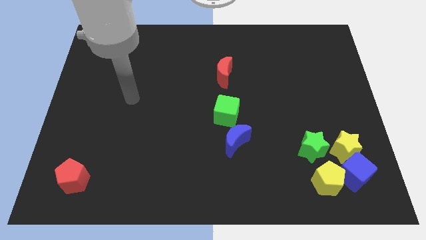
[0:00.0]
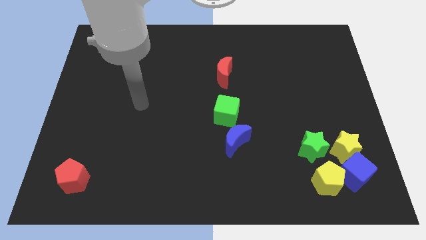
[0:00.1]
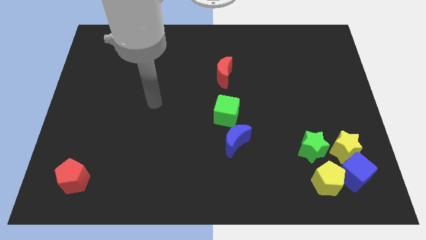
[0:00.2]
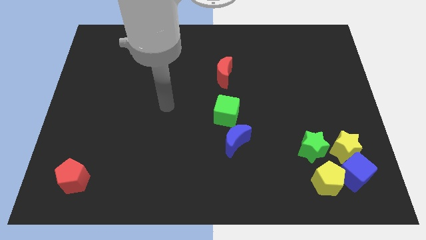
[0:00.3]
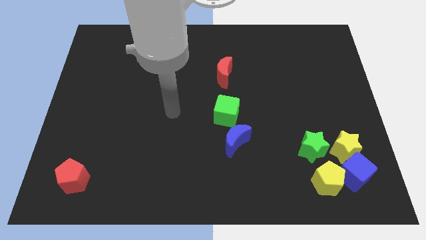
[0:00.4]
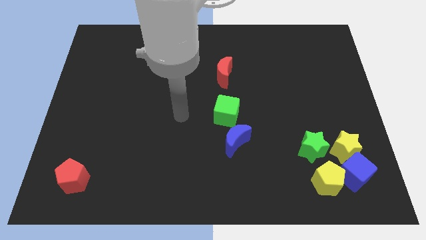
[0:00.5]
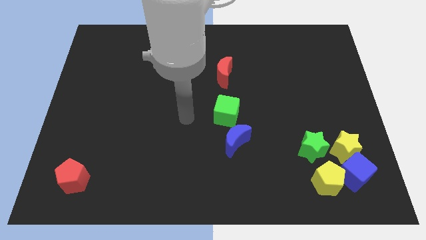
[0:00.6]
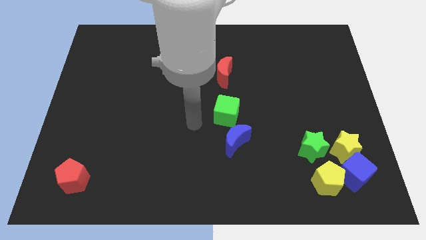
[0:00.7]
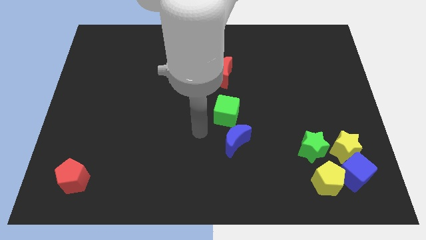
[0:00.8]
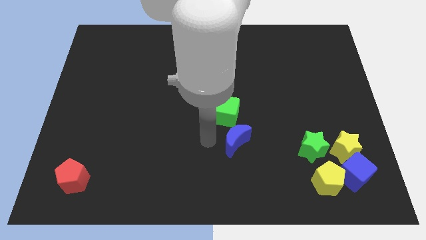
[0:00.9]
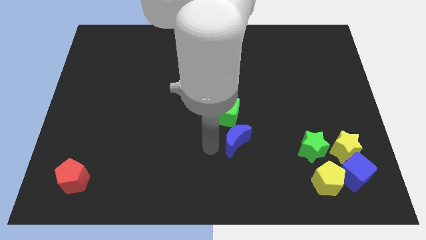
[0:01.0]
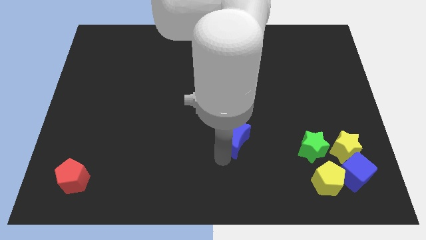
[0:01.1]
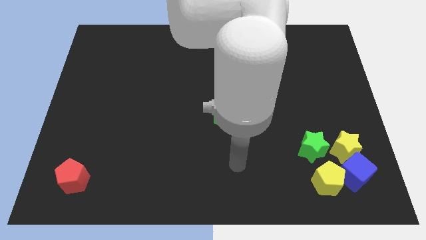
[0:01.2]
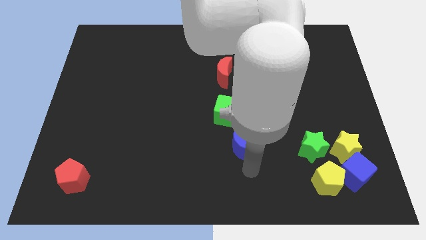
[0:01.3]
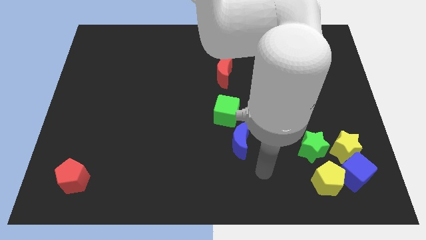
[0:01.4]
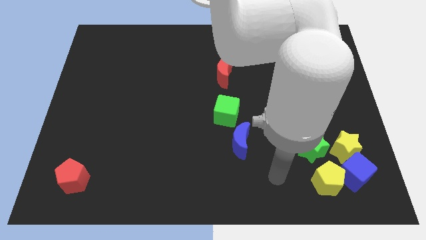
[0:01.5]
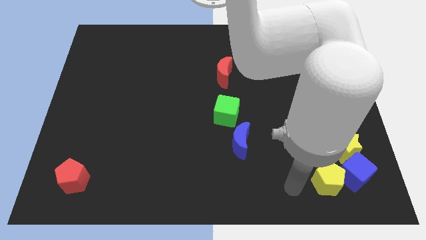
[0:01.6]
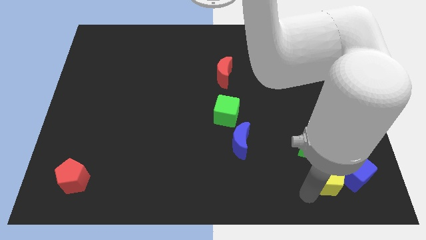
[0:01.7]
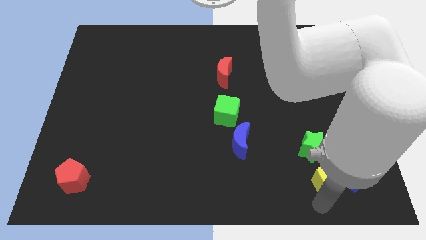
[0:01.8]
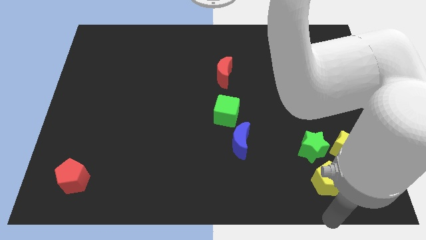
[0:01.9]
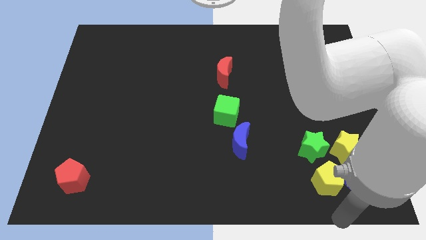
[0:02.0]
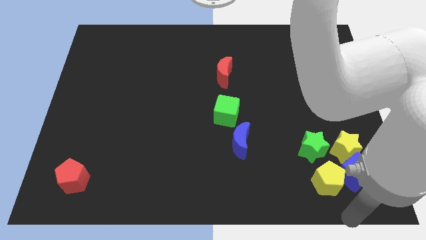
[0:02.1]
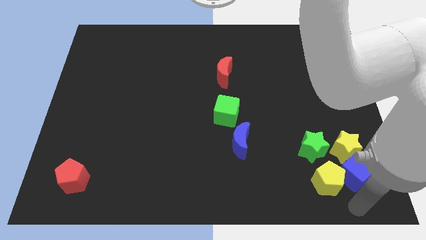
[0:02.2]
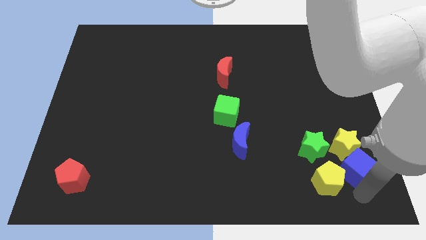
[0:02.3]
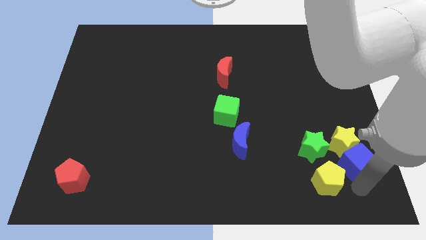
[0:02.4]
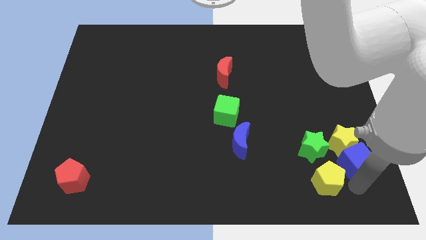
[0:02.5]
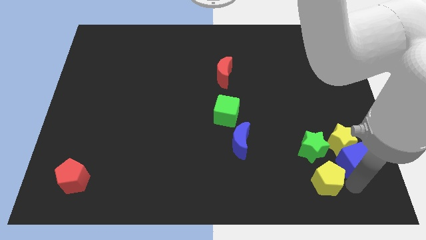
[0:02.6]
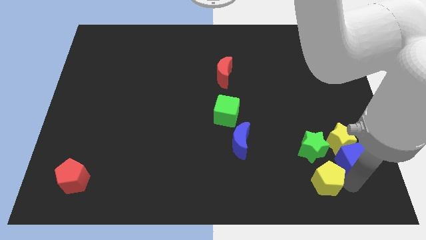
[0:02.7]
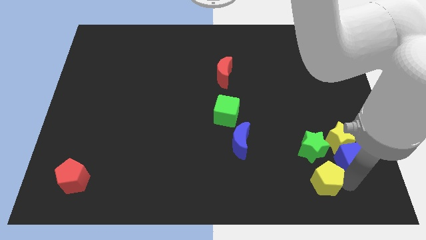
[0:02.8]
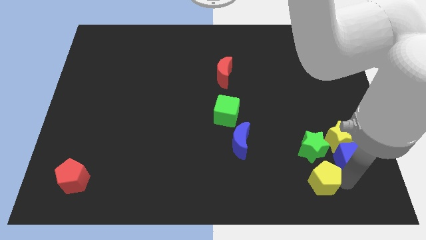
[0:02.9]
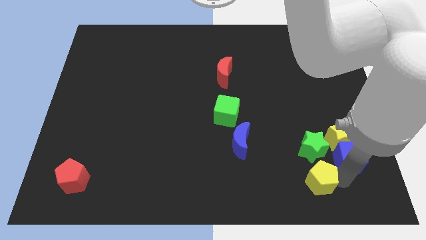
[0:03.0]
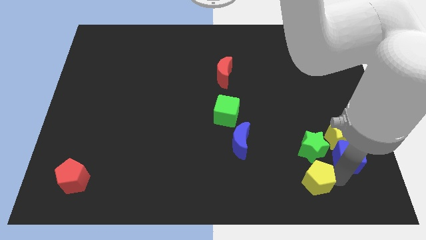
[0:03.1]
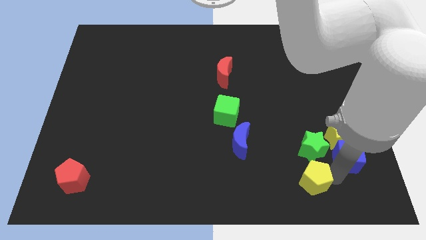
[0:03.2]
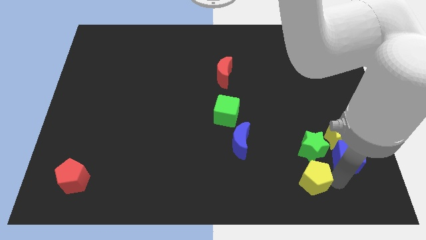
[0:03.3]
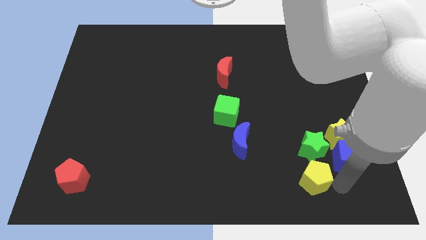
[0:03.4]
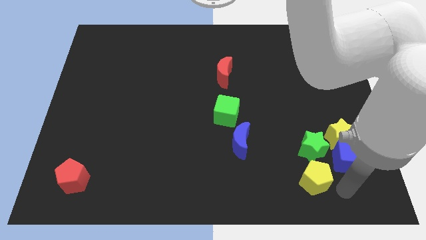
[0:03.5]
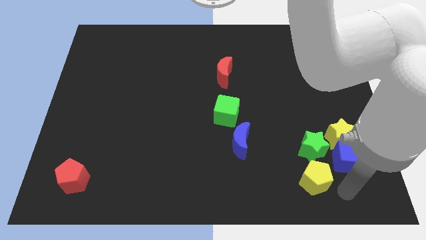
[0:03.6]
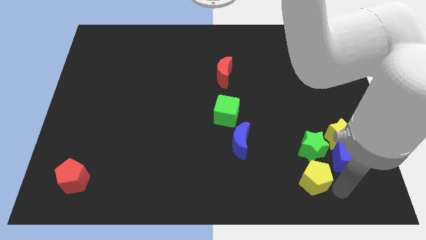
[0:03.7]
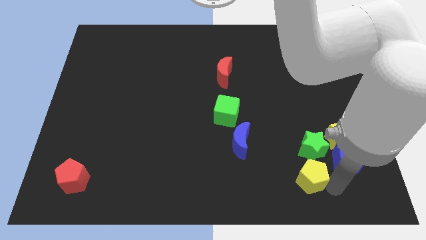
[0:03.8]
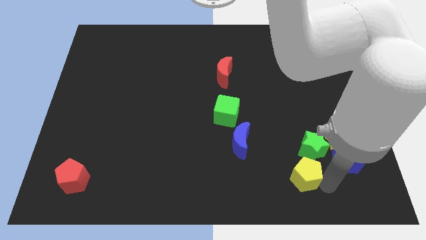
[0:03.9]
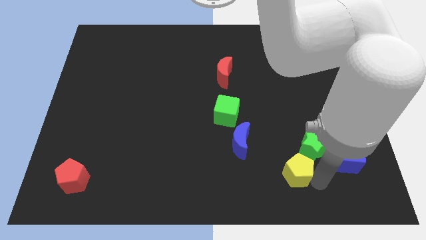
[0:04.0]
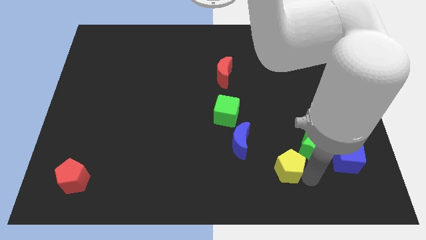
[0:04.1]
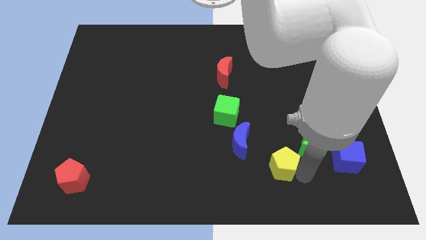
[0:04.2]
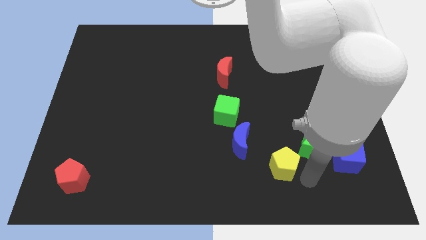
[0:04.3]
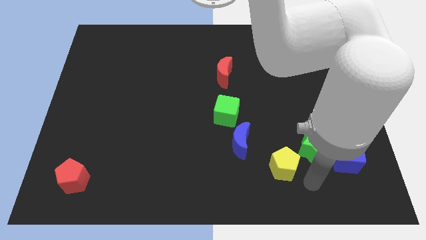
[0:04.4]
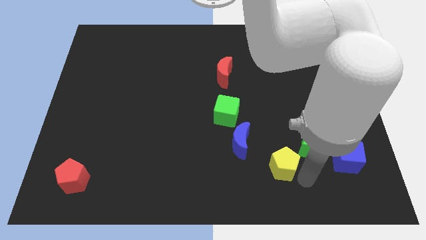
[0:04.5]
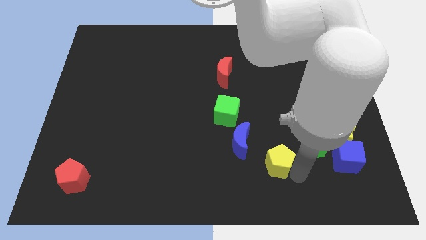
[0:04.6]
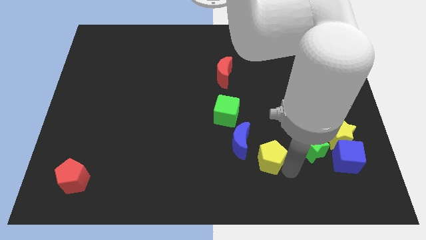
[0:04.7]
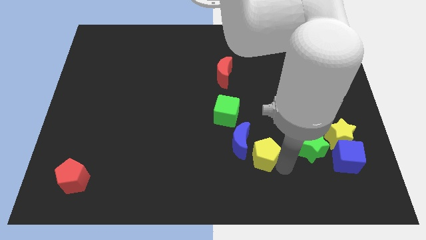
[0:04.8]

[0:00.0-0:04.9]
slide the yellow pentagon to the blue moon

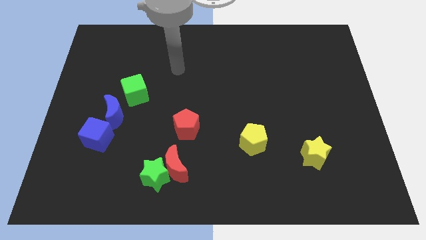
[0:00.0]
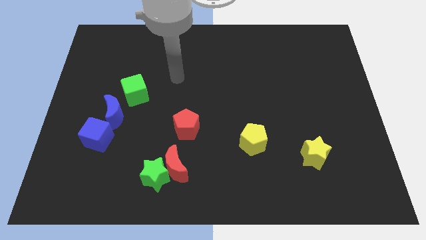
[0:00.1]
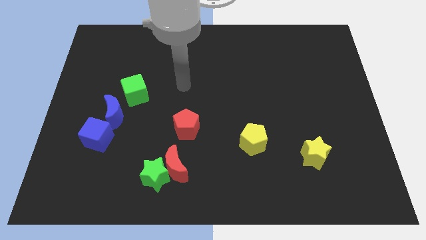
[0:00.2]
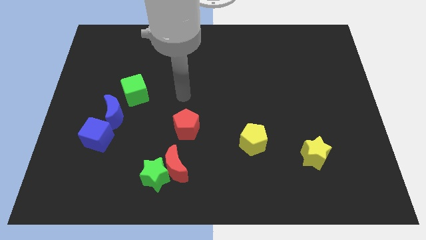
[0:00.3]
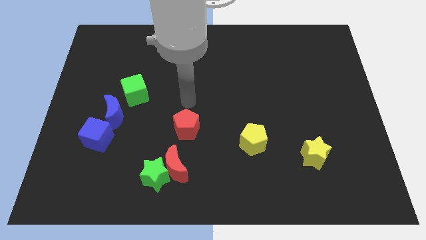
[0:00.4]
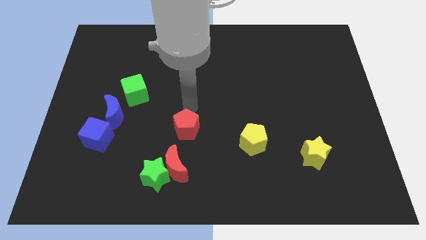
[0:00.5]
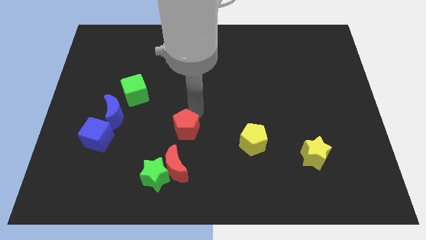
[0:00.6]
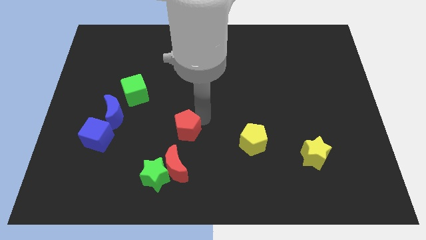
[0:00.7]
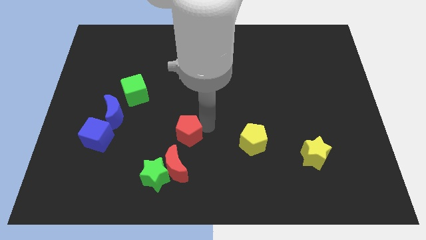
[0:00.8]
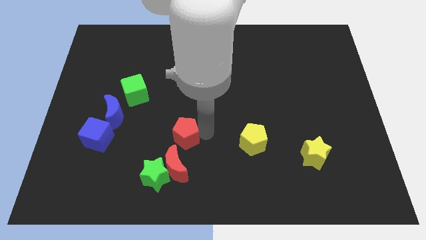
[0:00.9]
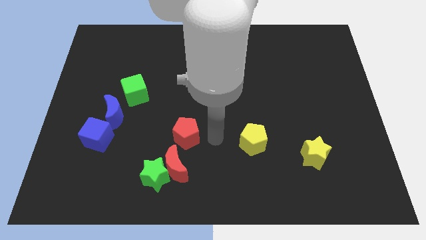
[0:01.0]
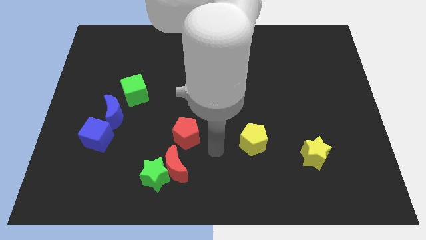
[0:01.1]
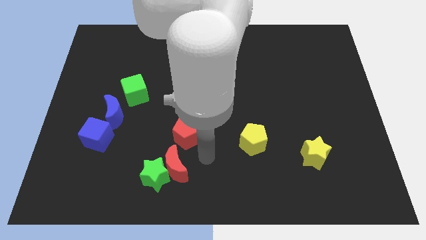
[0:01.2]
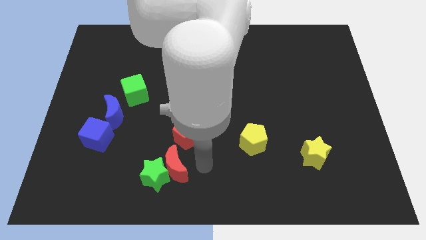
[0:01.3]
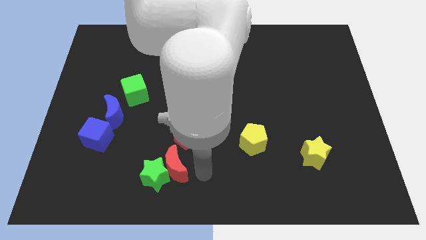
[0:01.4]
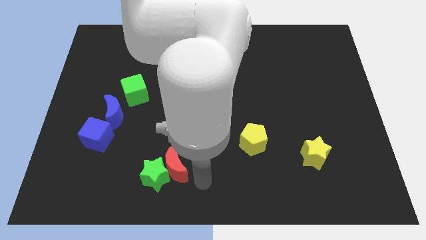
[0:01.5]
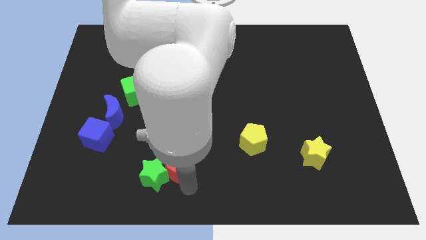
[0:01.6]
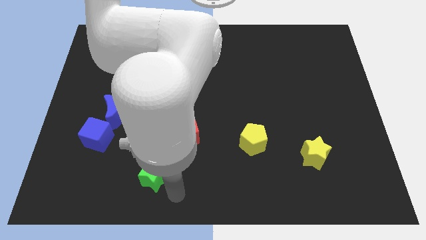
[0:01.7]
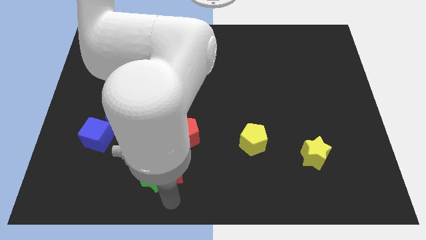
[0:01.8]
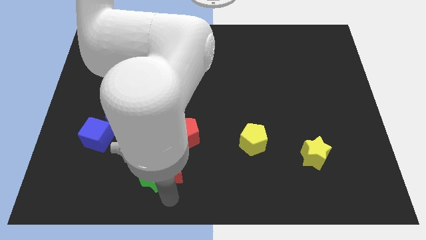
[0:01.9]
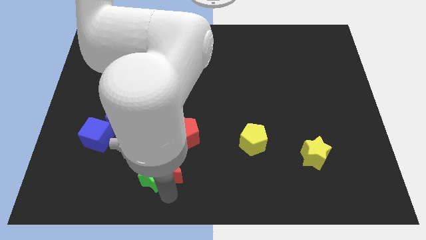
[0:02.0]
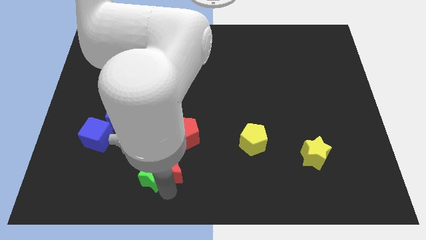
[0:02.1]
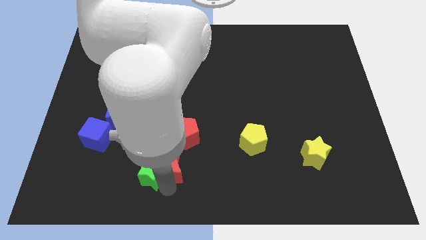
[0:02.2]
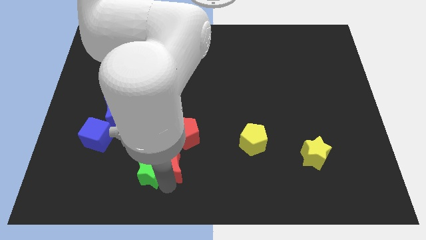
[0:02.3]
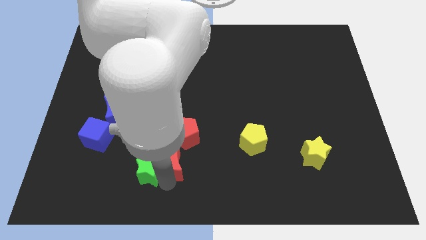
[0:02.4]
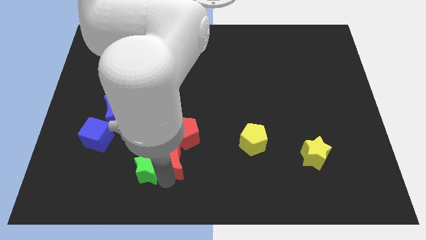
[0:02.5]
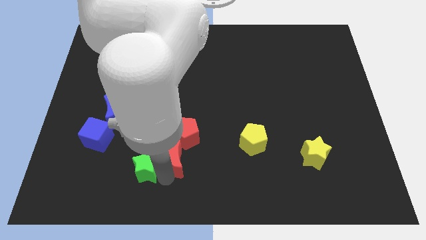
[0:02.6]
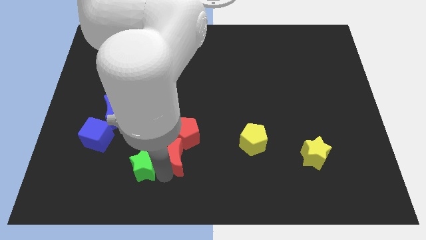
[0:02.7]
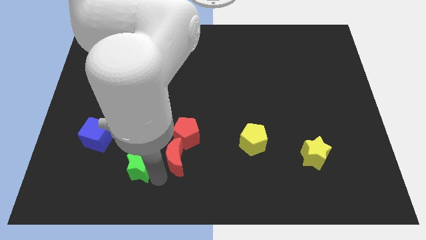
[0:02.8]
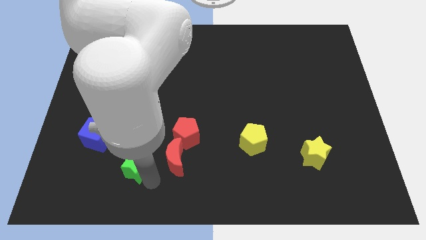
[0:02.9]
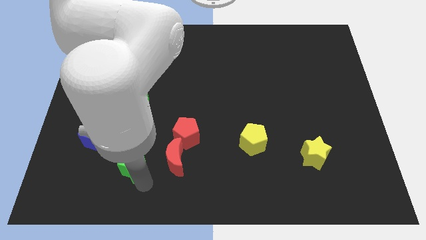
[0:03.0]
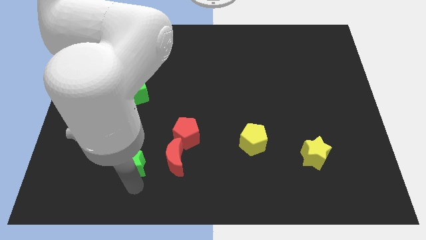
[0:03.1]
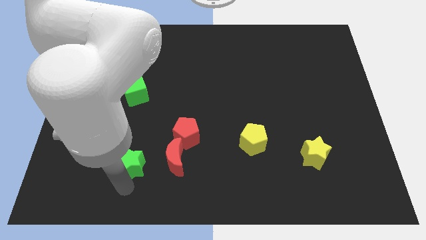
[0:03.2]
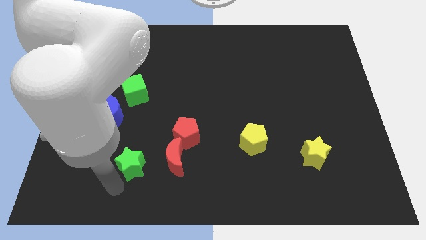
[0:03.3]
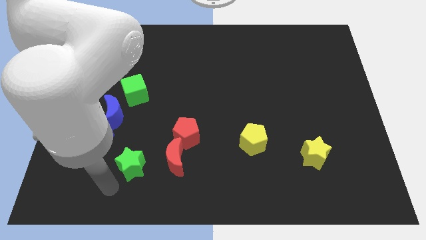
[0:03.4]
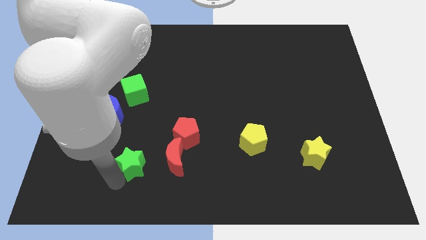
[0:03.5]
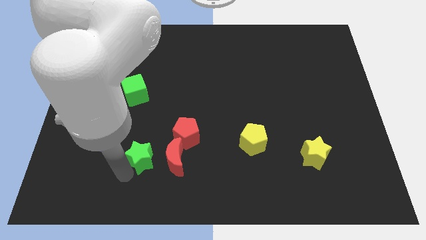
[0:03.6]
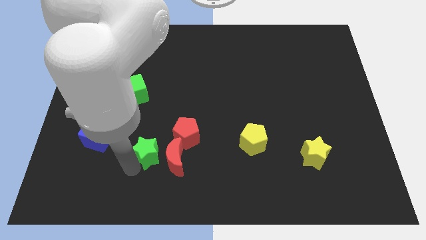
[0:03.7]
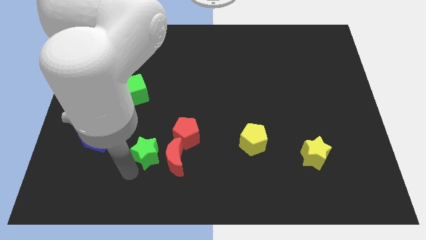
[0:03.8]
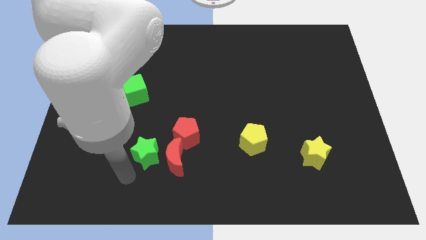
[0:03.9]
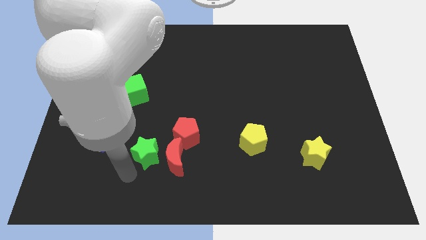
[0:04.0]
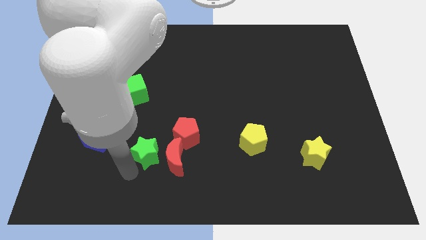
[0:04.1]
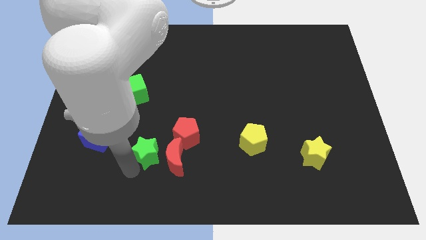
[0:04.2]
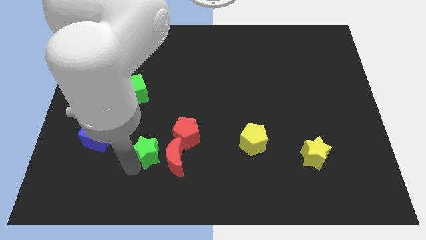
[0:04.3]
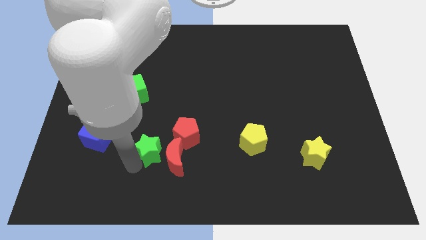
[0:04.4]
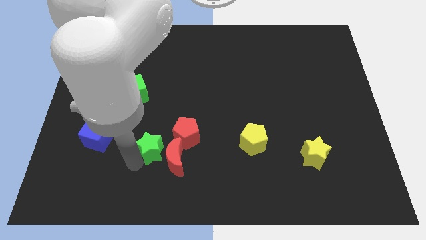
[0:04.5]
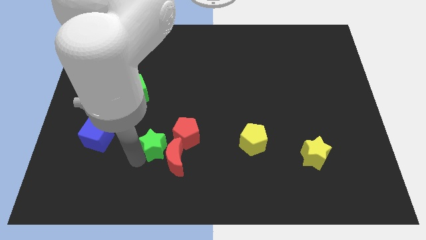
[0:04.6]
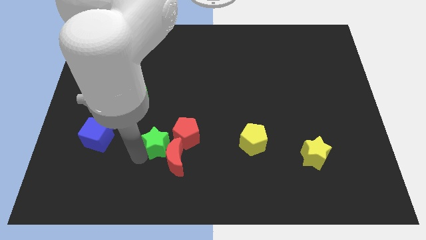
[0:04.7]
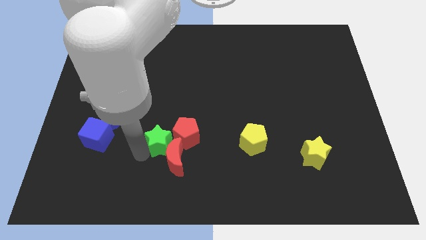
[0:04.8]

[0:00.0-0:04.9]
slide the green star next to the red pentagon
